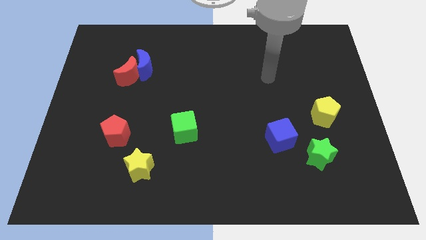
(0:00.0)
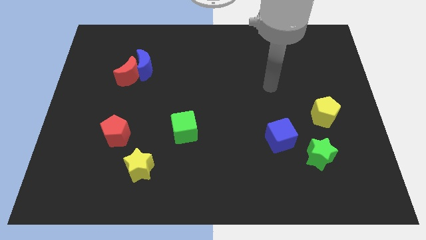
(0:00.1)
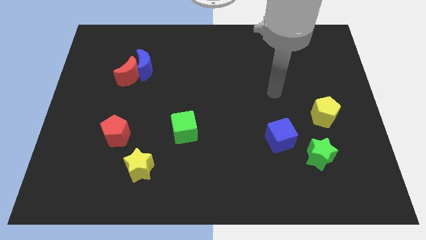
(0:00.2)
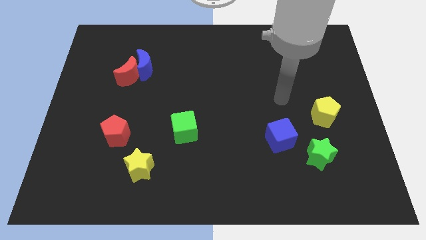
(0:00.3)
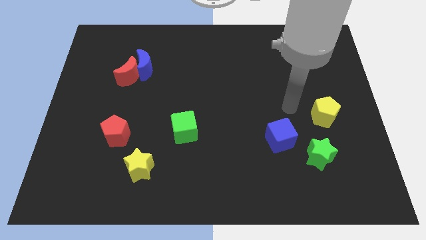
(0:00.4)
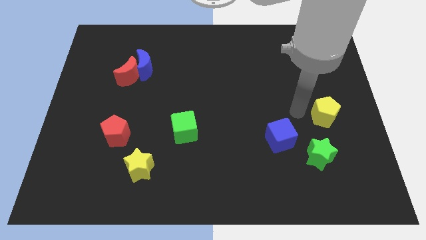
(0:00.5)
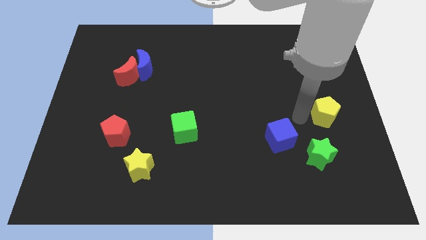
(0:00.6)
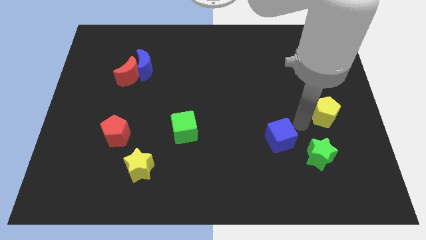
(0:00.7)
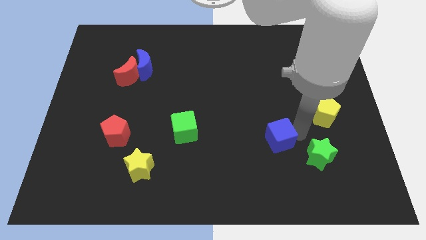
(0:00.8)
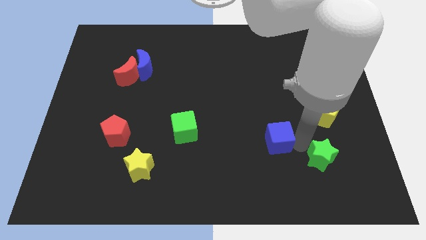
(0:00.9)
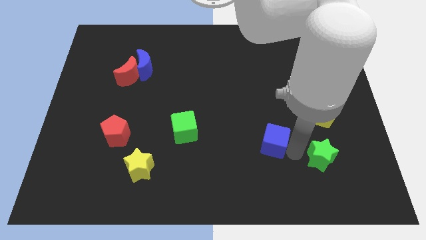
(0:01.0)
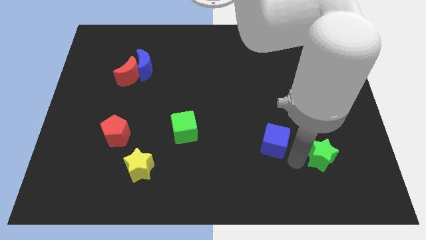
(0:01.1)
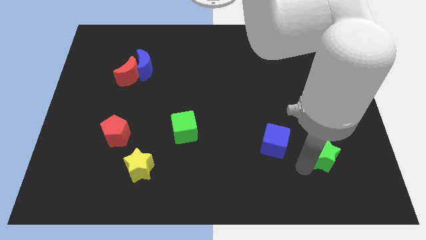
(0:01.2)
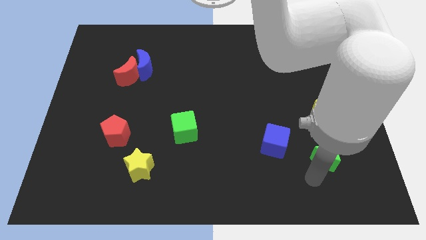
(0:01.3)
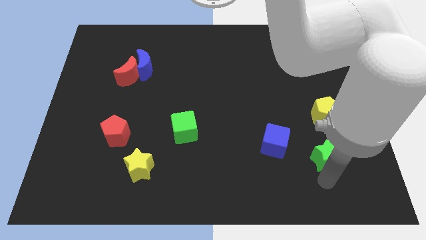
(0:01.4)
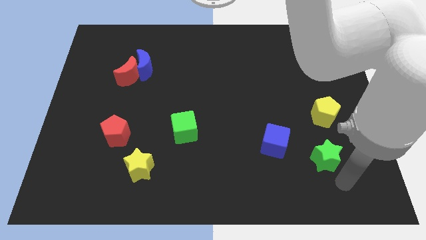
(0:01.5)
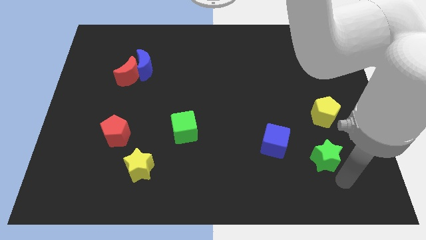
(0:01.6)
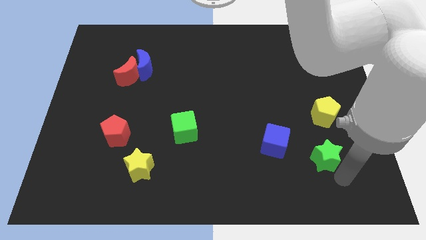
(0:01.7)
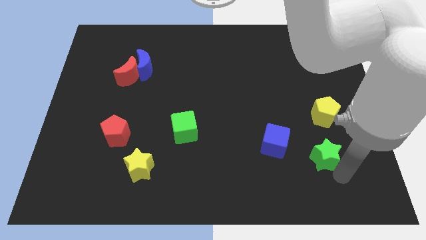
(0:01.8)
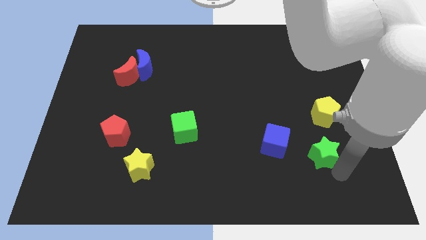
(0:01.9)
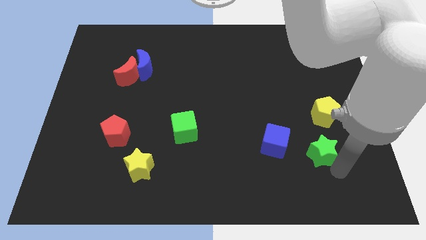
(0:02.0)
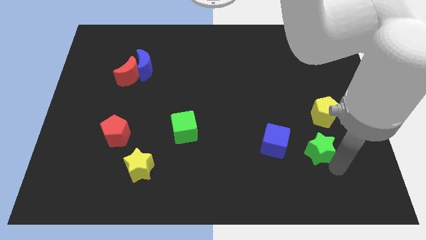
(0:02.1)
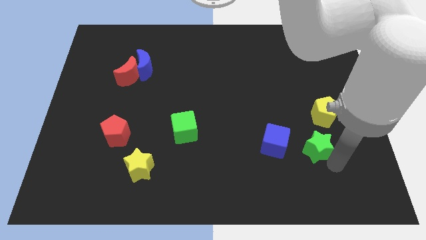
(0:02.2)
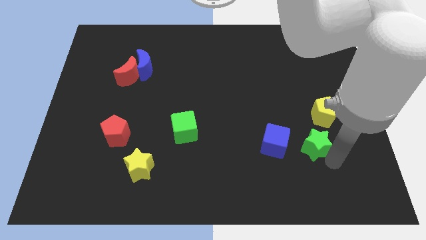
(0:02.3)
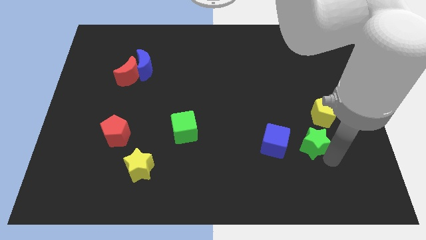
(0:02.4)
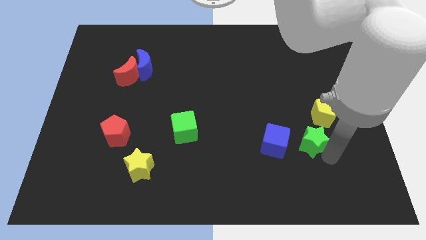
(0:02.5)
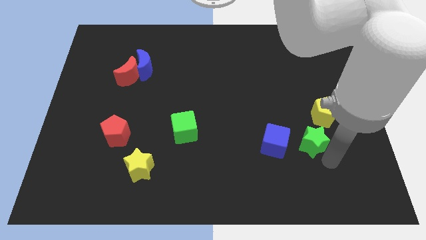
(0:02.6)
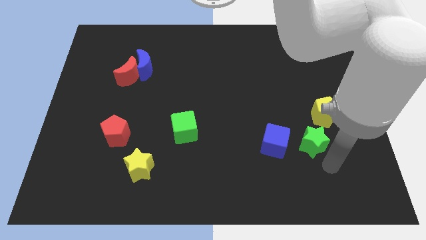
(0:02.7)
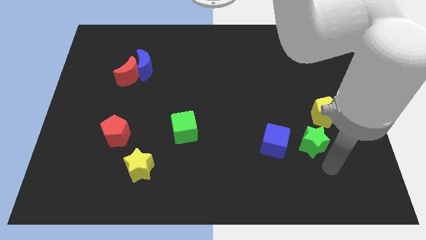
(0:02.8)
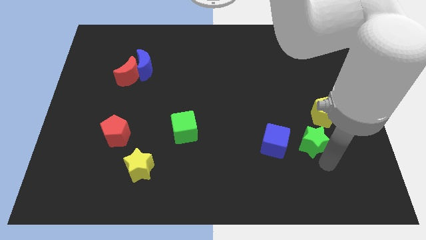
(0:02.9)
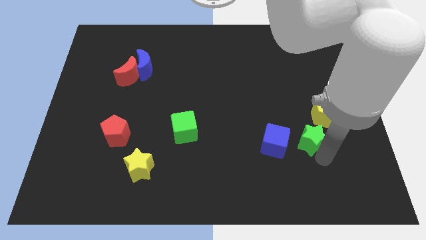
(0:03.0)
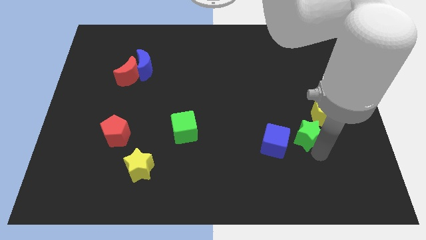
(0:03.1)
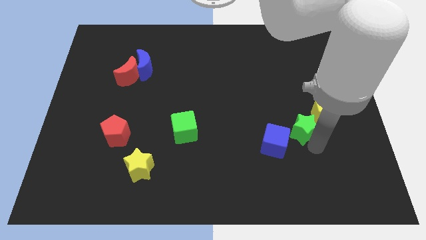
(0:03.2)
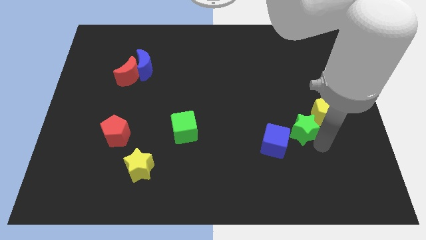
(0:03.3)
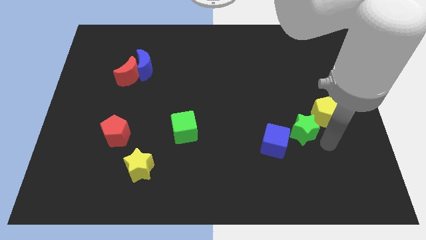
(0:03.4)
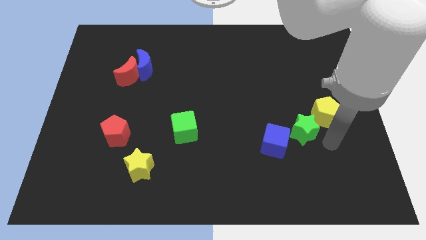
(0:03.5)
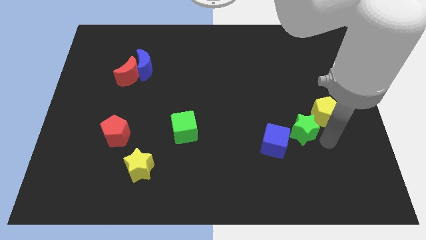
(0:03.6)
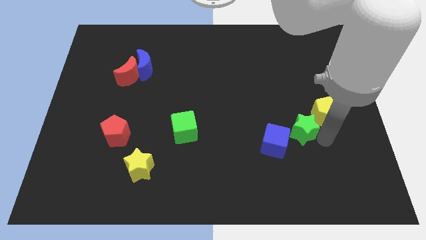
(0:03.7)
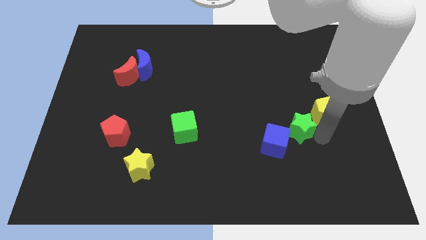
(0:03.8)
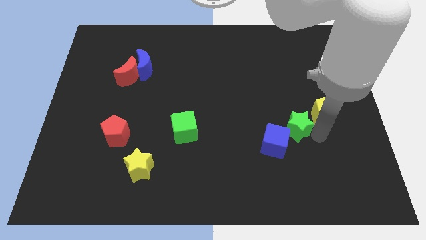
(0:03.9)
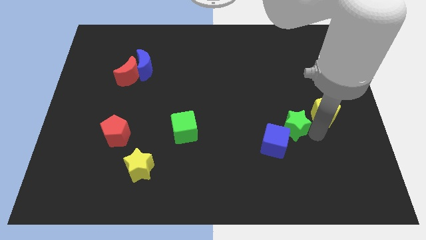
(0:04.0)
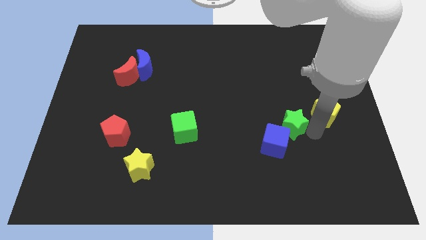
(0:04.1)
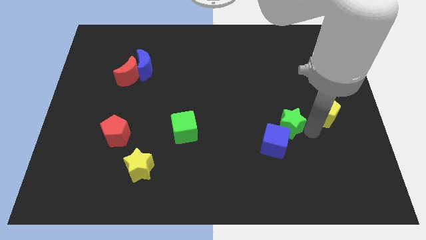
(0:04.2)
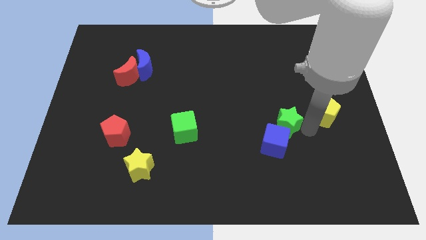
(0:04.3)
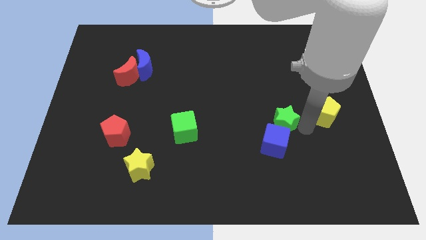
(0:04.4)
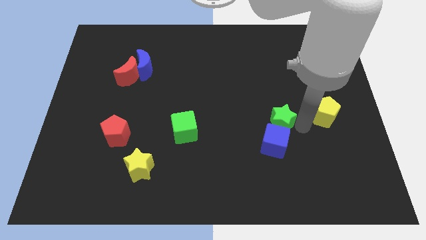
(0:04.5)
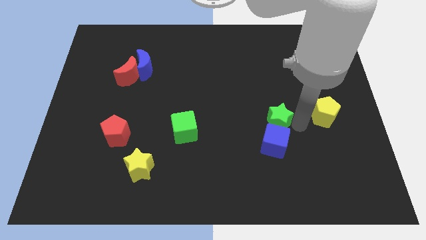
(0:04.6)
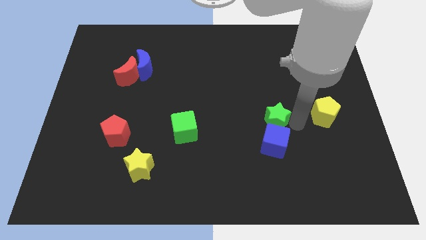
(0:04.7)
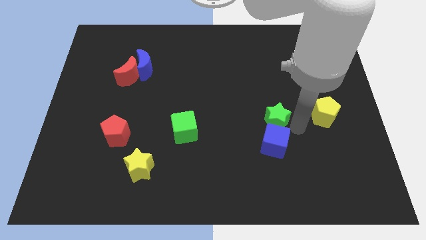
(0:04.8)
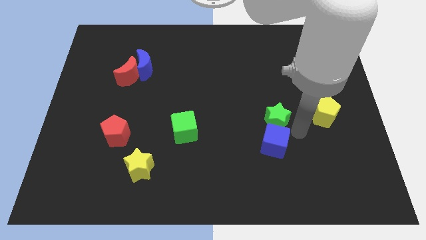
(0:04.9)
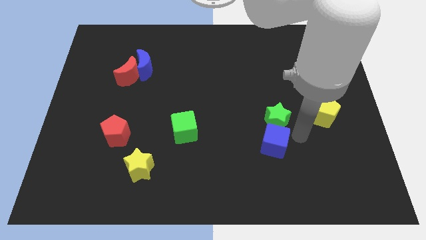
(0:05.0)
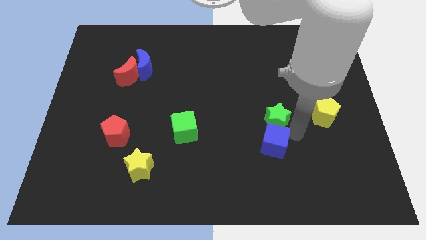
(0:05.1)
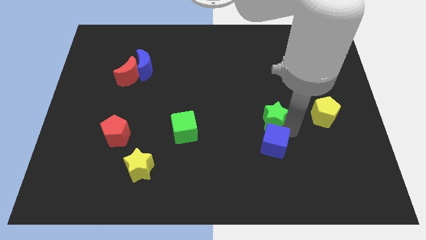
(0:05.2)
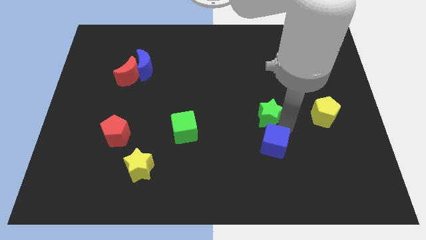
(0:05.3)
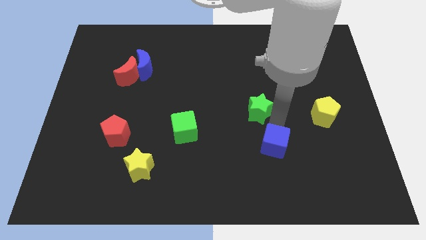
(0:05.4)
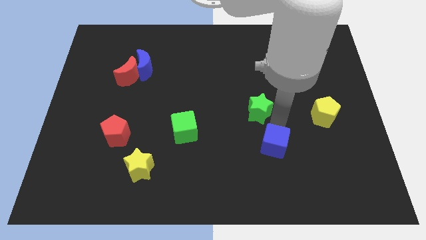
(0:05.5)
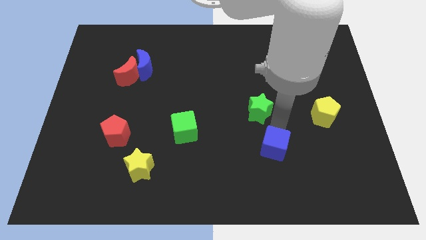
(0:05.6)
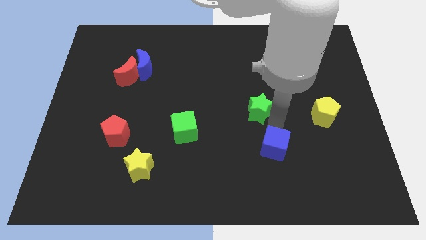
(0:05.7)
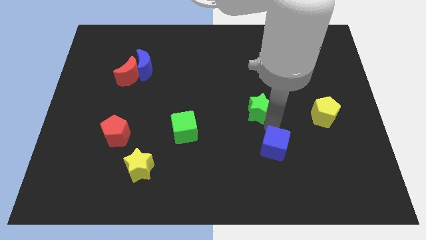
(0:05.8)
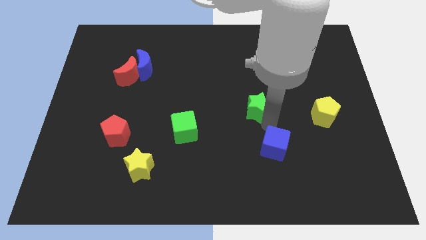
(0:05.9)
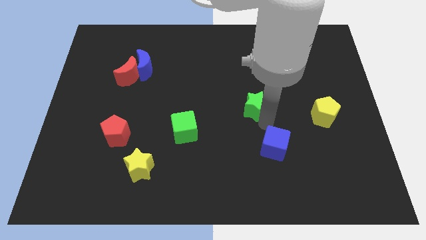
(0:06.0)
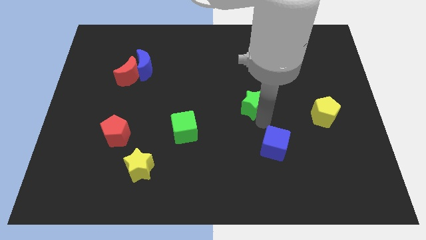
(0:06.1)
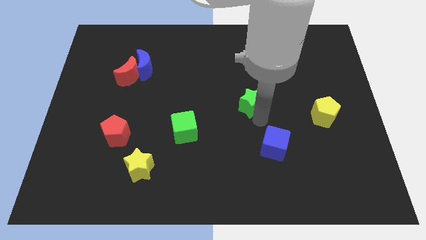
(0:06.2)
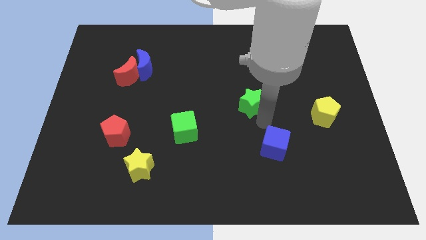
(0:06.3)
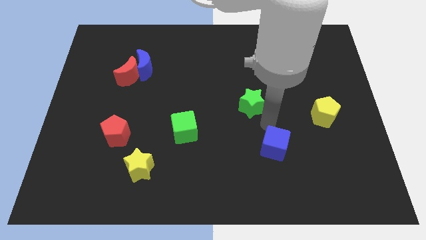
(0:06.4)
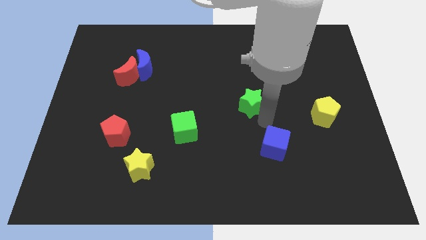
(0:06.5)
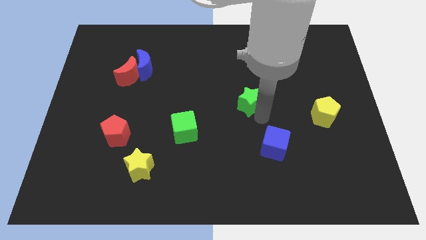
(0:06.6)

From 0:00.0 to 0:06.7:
slide the green star diagonally up and left

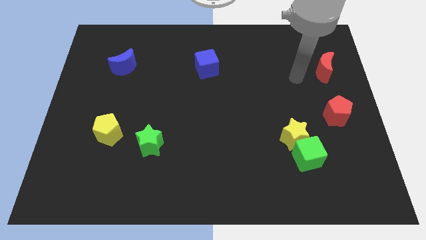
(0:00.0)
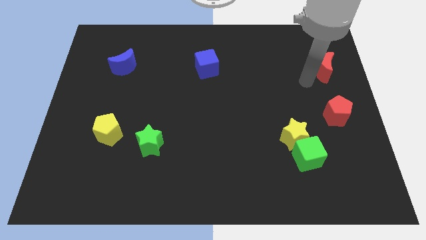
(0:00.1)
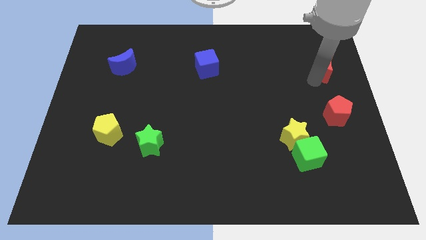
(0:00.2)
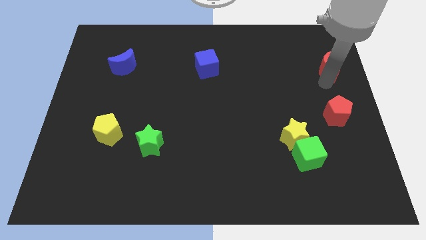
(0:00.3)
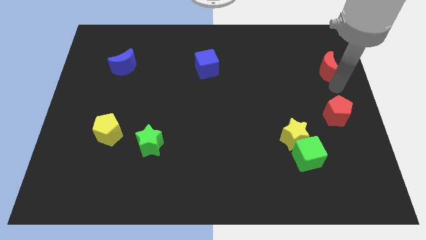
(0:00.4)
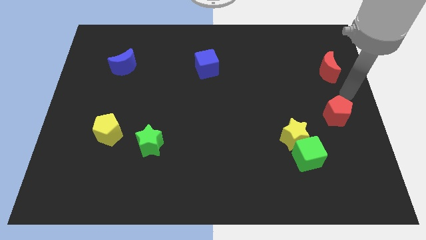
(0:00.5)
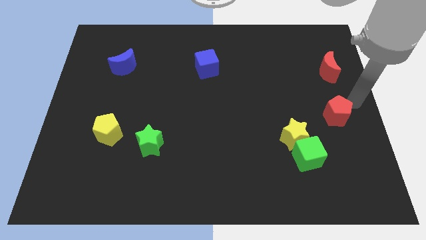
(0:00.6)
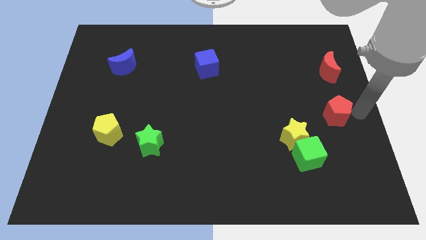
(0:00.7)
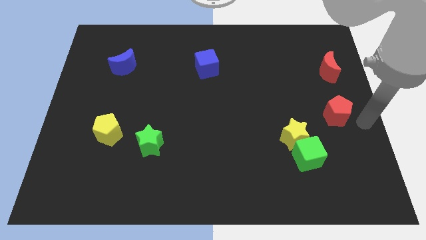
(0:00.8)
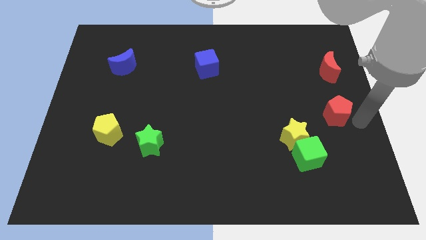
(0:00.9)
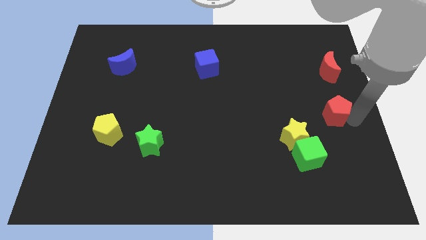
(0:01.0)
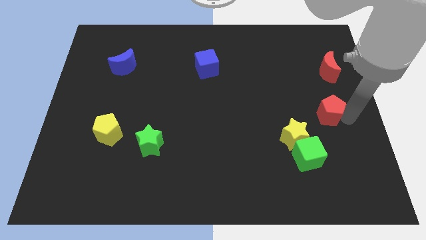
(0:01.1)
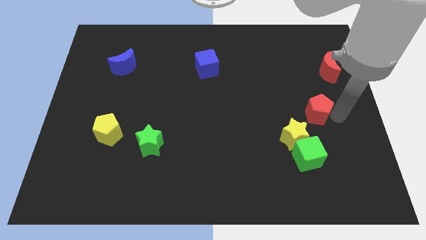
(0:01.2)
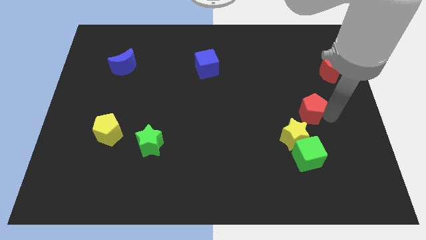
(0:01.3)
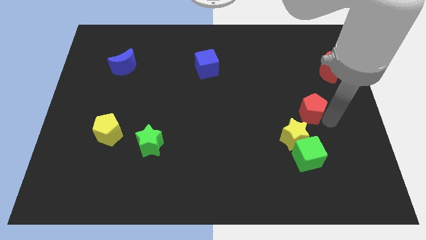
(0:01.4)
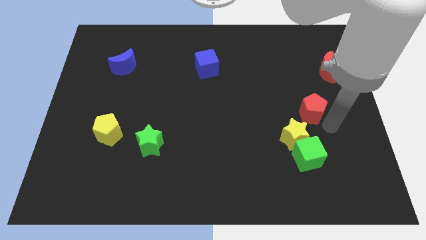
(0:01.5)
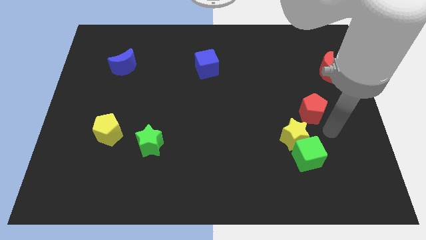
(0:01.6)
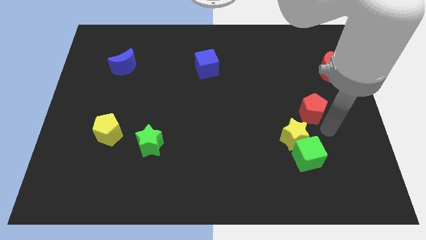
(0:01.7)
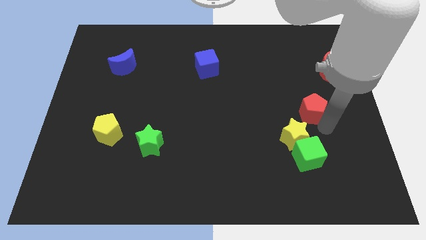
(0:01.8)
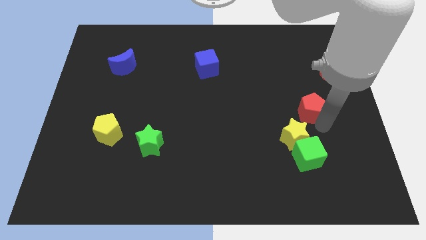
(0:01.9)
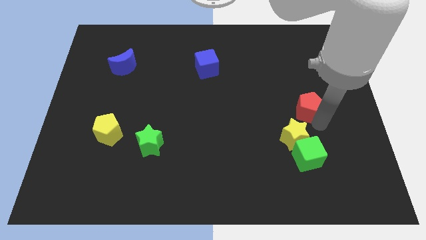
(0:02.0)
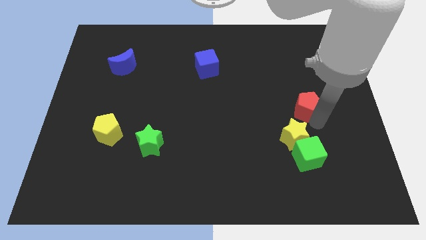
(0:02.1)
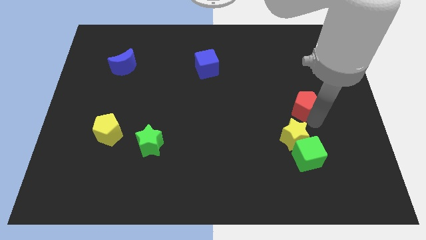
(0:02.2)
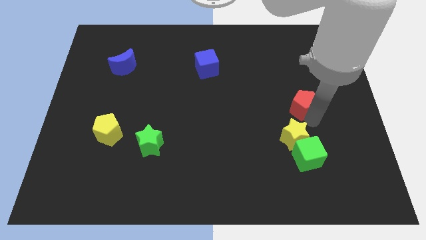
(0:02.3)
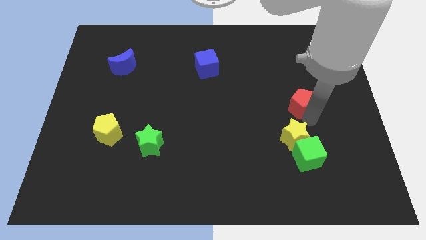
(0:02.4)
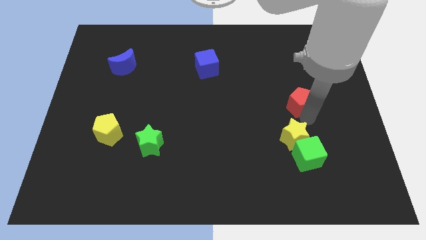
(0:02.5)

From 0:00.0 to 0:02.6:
slightly move the red pentagon up and then left
